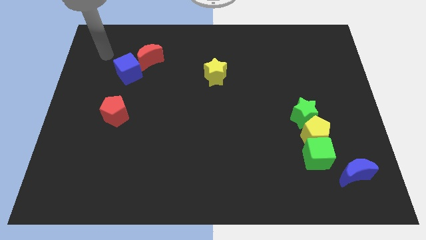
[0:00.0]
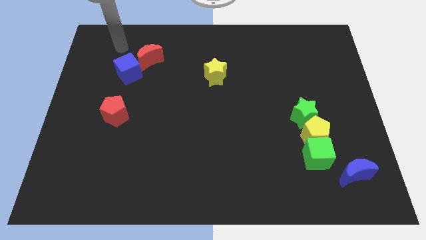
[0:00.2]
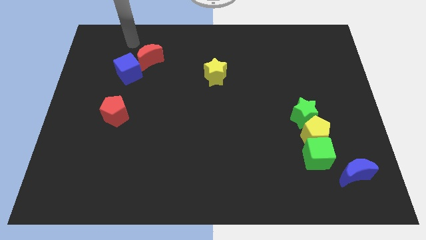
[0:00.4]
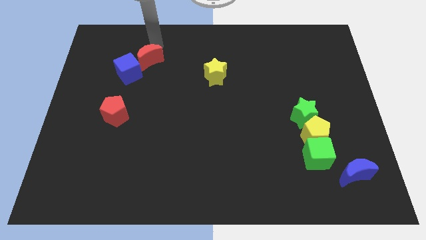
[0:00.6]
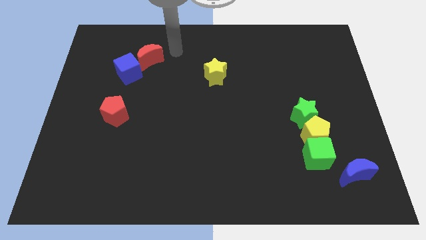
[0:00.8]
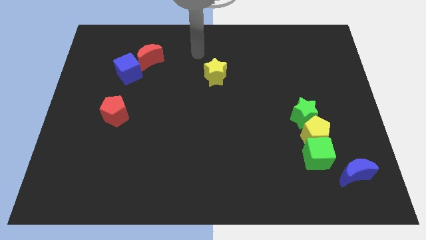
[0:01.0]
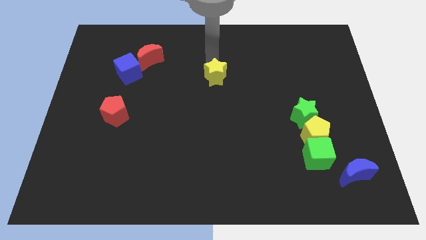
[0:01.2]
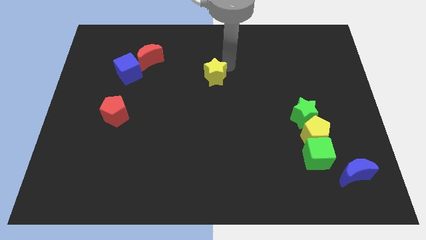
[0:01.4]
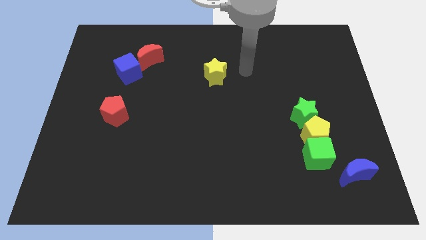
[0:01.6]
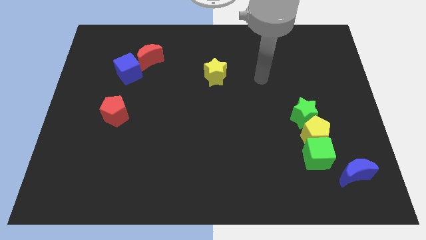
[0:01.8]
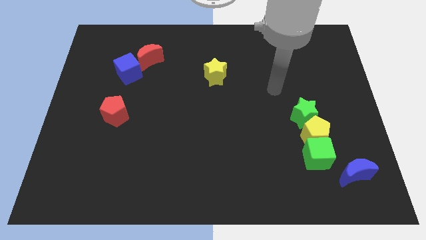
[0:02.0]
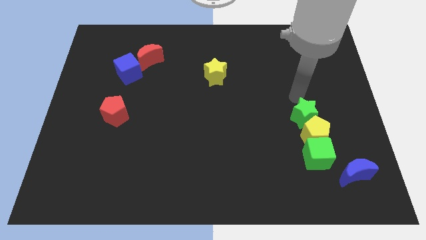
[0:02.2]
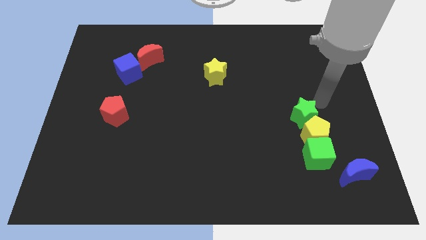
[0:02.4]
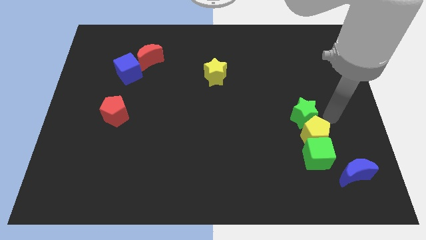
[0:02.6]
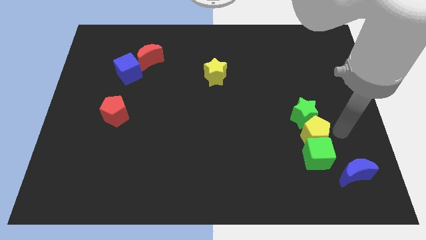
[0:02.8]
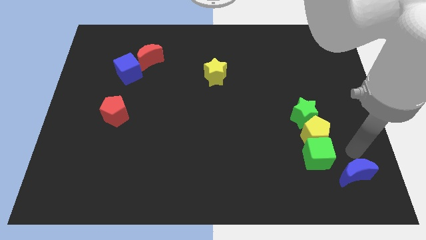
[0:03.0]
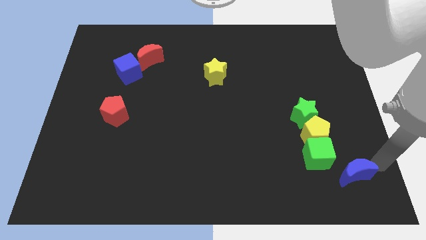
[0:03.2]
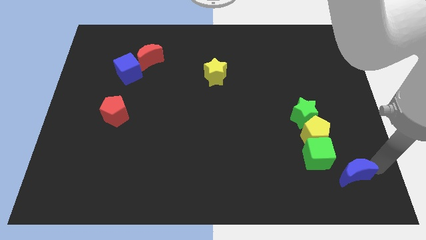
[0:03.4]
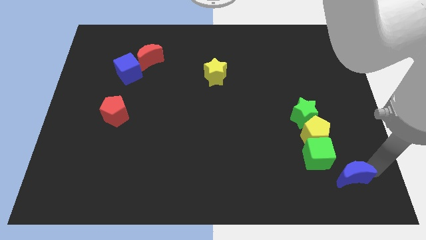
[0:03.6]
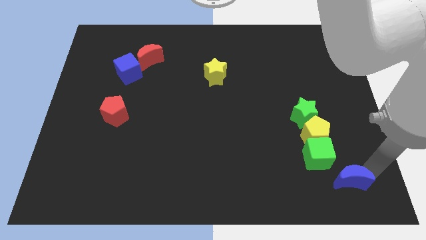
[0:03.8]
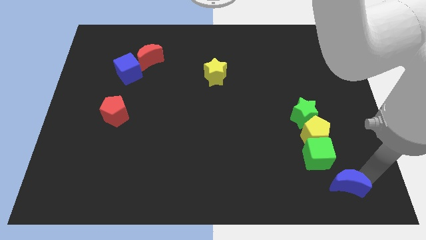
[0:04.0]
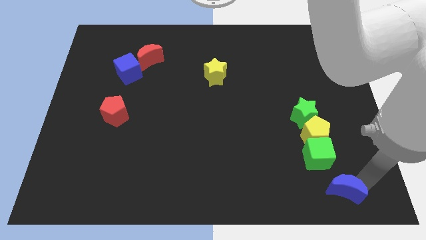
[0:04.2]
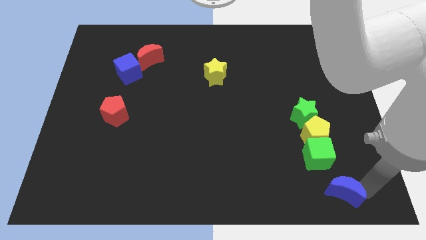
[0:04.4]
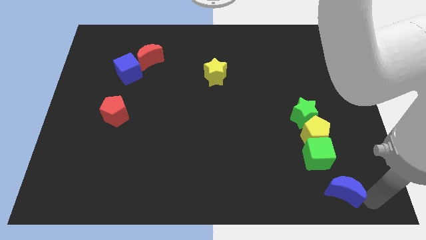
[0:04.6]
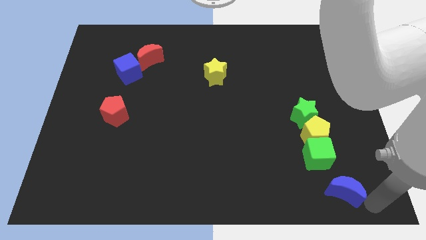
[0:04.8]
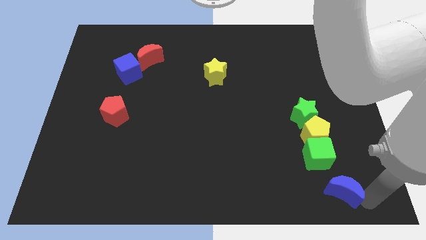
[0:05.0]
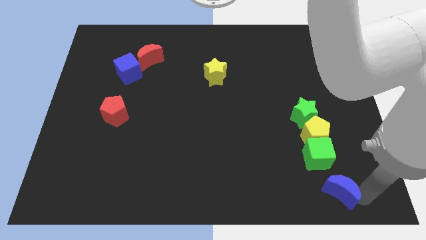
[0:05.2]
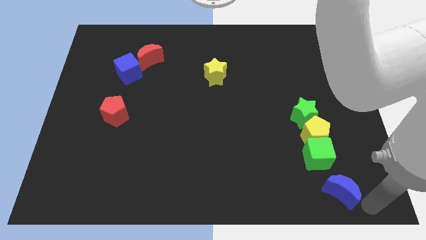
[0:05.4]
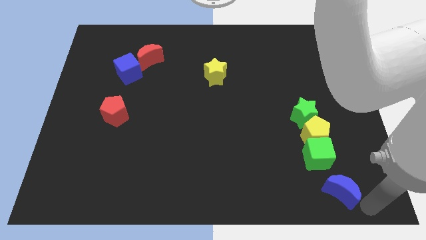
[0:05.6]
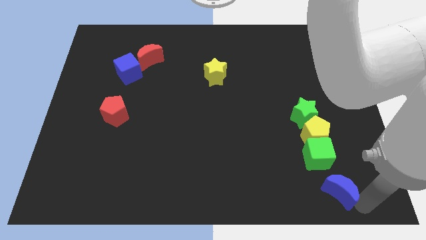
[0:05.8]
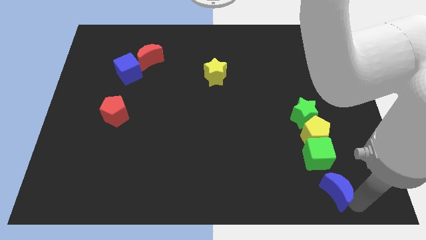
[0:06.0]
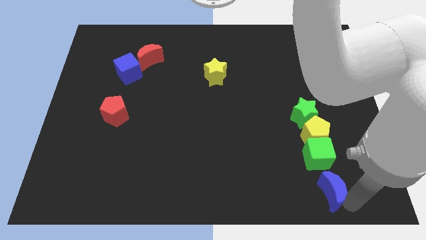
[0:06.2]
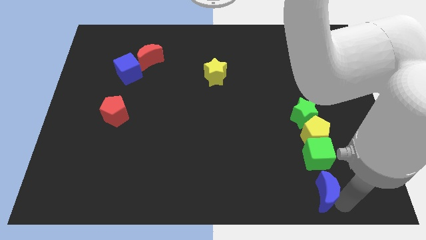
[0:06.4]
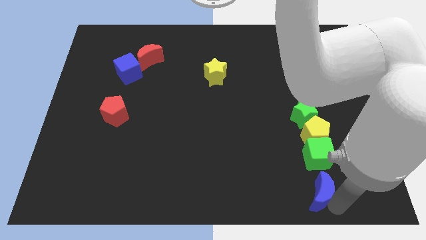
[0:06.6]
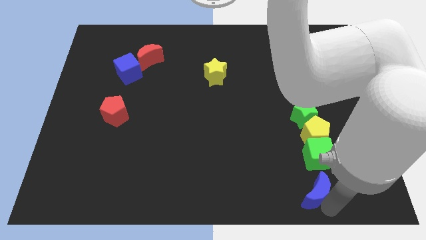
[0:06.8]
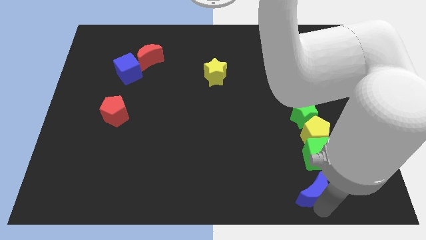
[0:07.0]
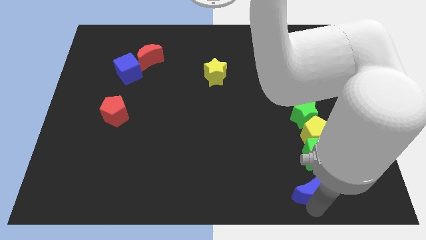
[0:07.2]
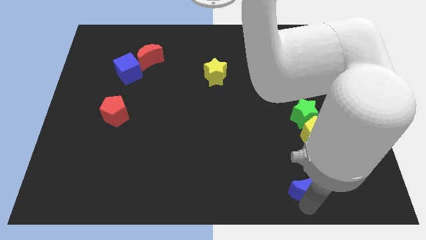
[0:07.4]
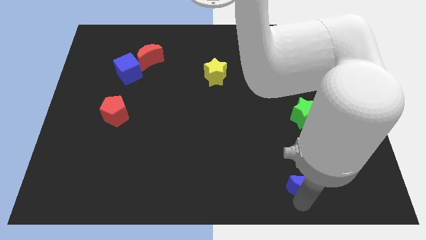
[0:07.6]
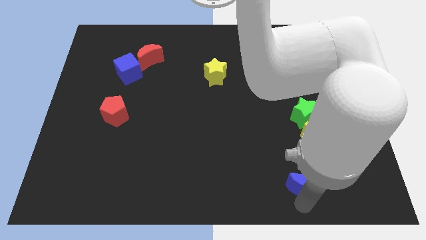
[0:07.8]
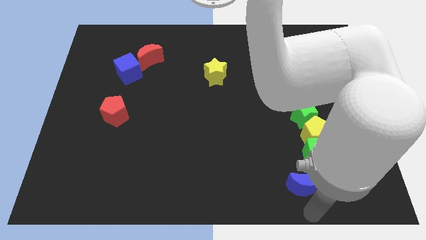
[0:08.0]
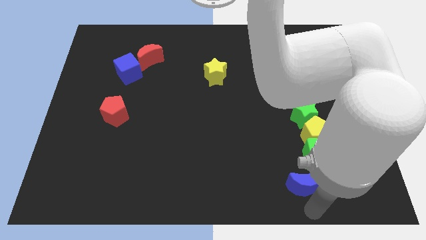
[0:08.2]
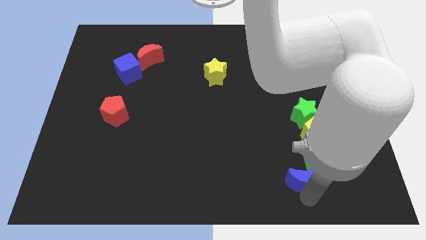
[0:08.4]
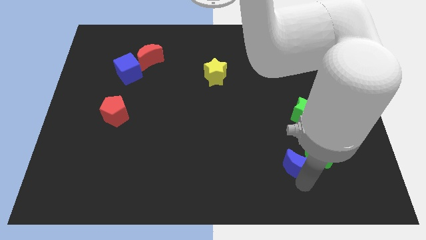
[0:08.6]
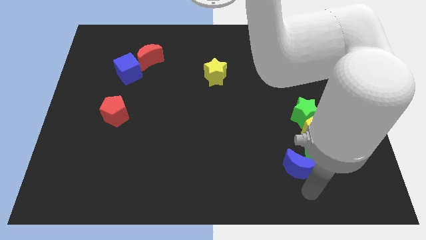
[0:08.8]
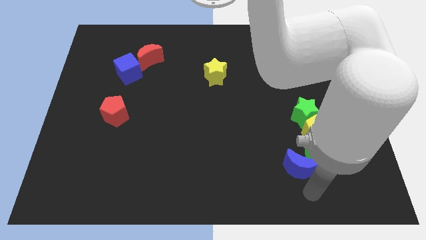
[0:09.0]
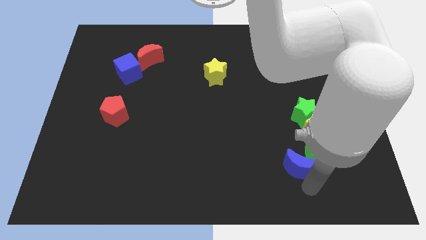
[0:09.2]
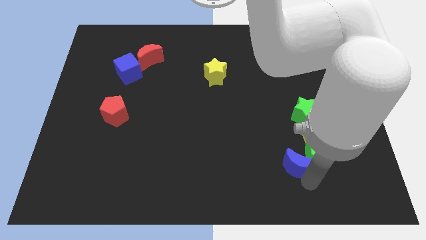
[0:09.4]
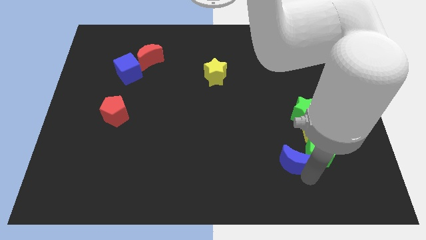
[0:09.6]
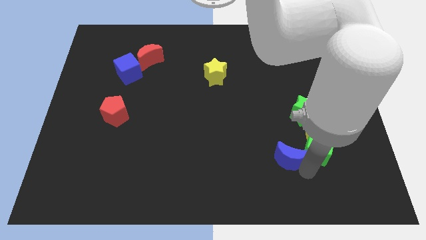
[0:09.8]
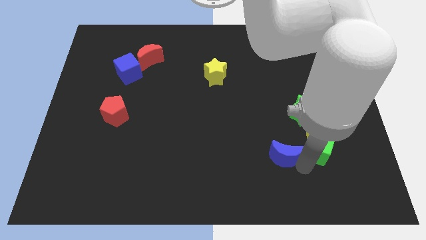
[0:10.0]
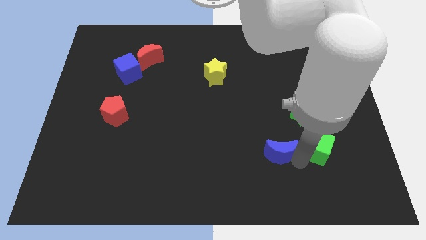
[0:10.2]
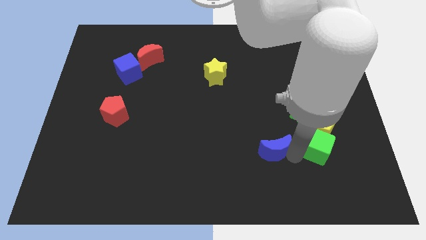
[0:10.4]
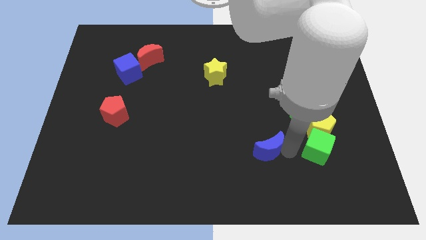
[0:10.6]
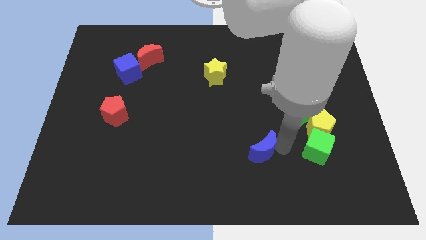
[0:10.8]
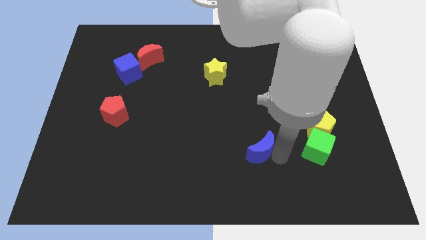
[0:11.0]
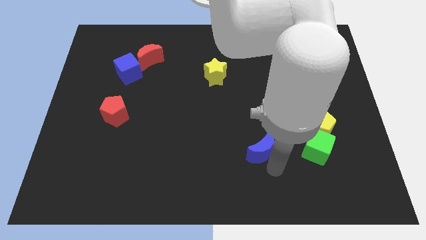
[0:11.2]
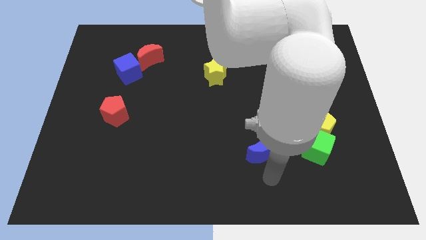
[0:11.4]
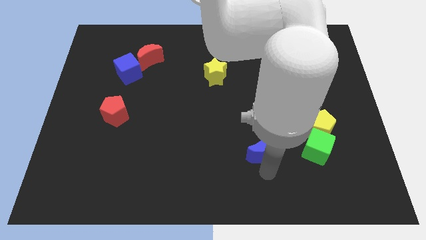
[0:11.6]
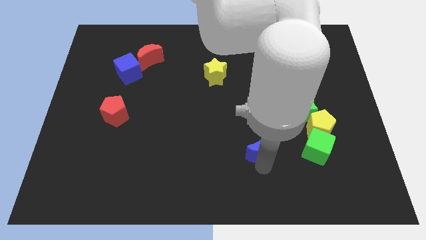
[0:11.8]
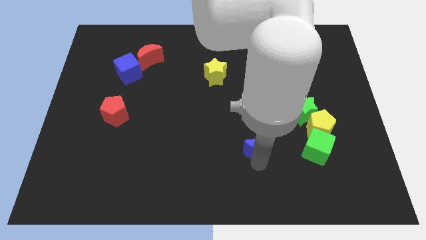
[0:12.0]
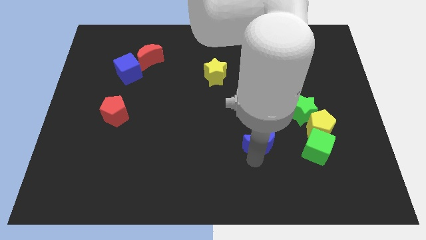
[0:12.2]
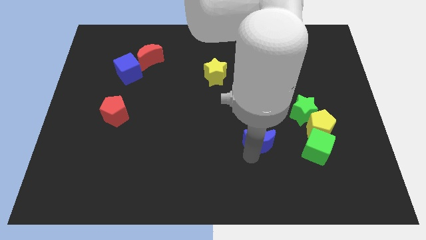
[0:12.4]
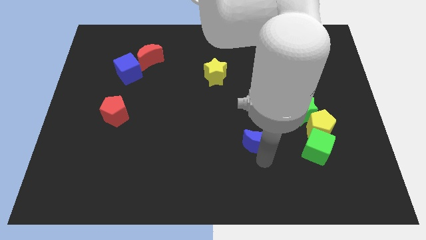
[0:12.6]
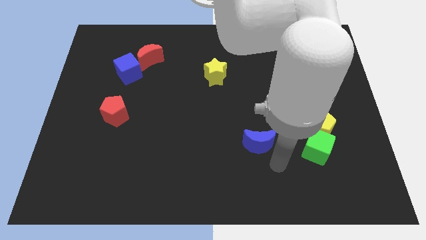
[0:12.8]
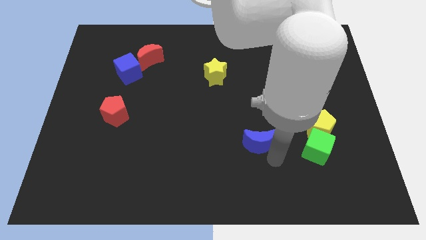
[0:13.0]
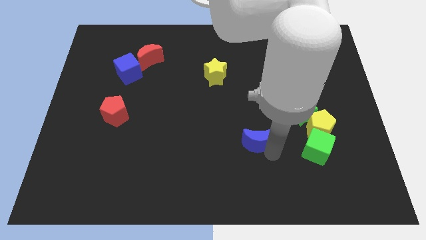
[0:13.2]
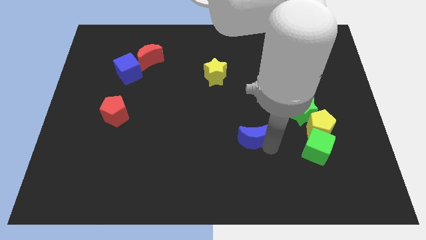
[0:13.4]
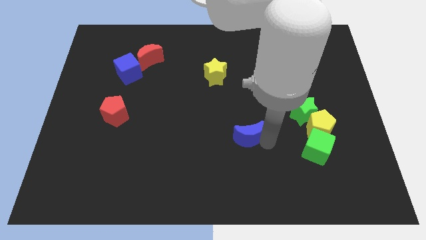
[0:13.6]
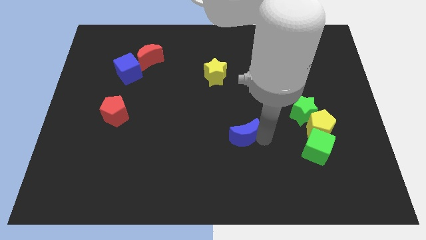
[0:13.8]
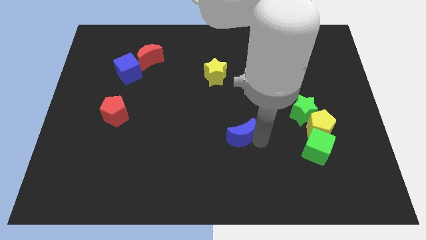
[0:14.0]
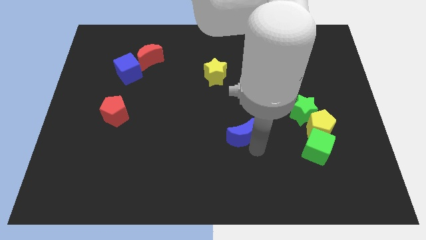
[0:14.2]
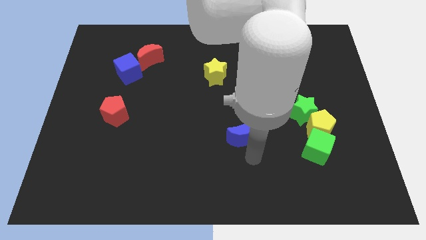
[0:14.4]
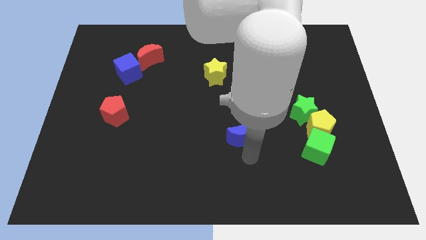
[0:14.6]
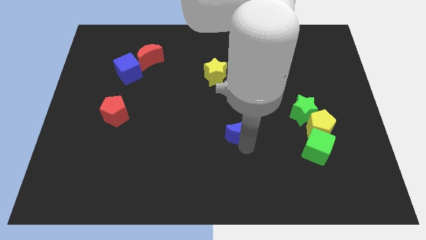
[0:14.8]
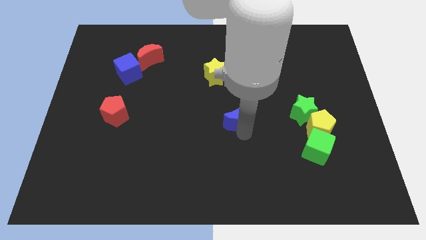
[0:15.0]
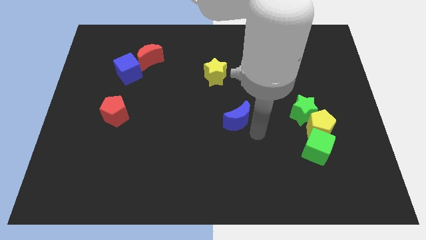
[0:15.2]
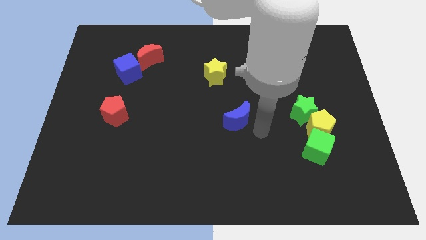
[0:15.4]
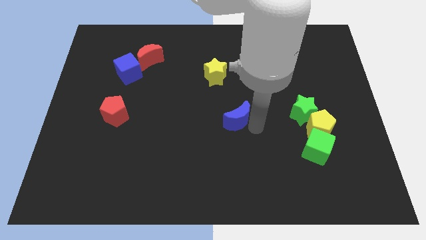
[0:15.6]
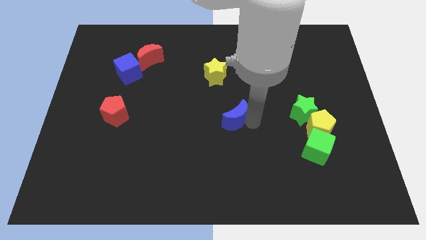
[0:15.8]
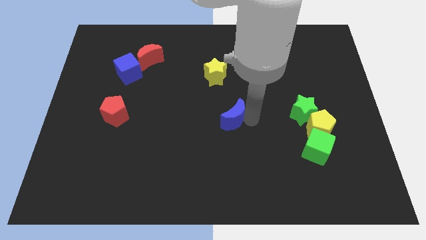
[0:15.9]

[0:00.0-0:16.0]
move the blue moon below the yellow star
